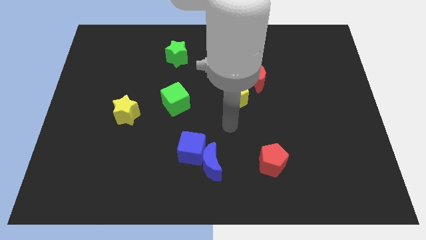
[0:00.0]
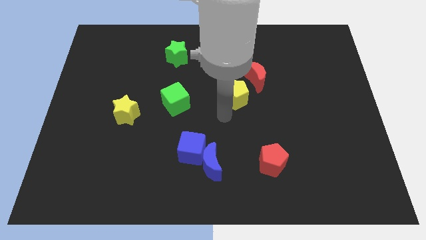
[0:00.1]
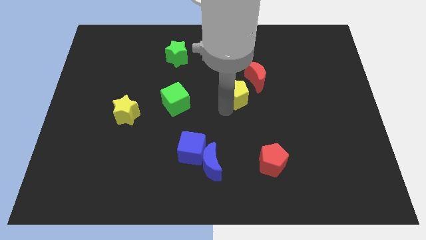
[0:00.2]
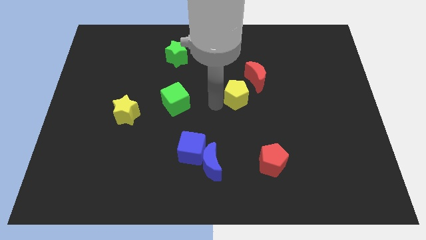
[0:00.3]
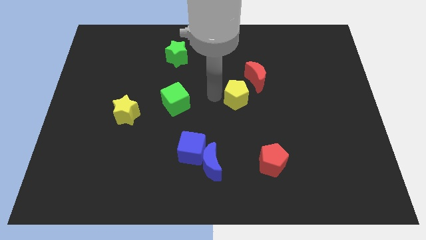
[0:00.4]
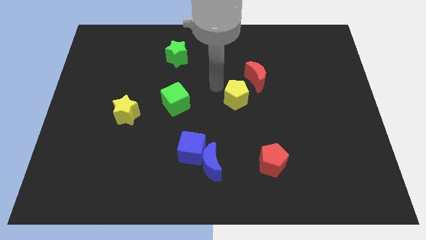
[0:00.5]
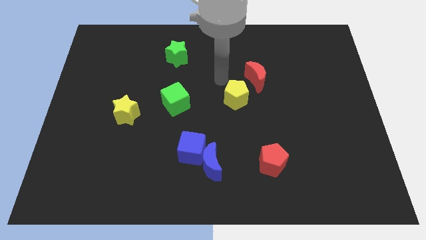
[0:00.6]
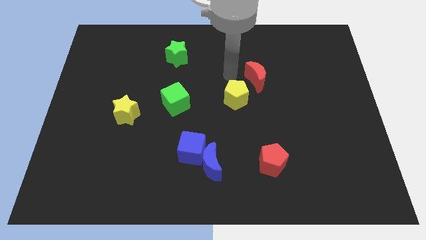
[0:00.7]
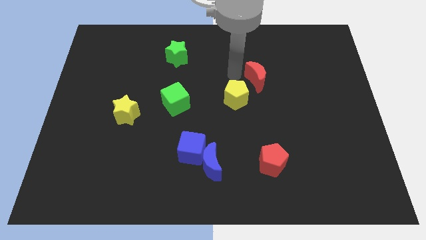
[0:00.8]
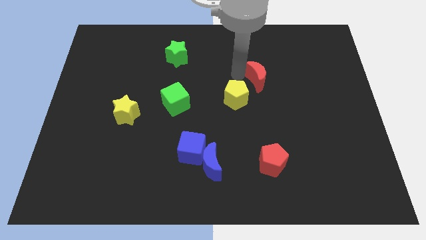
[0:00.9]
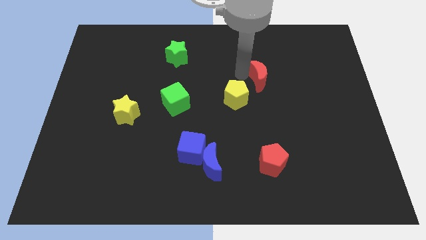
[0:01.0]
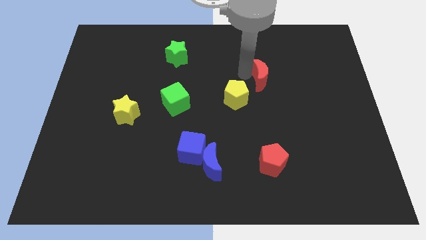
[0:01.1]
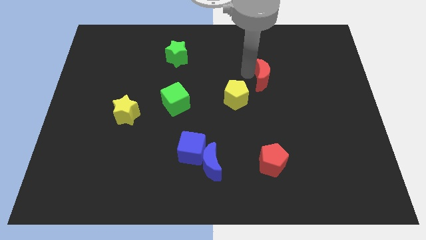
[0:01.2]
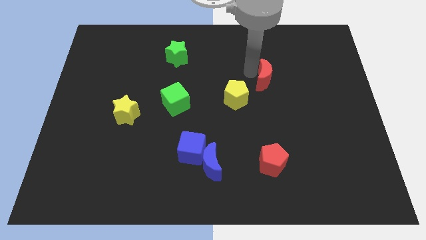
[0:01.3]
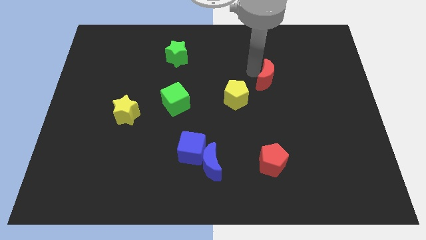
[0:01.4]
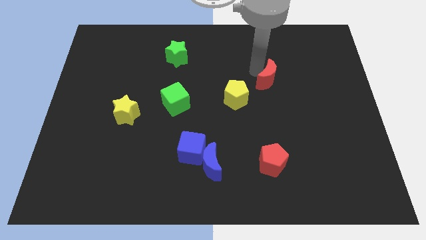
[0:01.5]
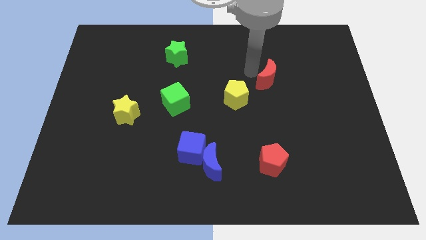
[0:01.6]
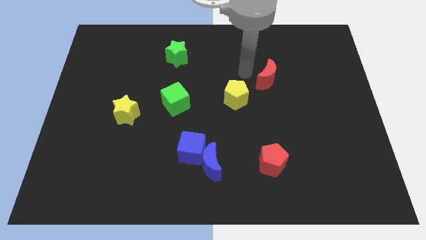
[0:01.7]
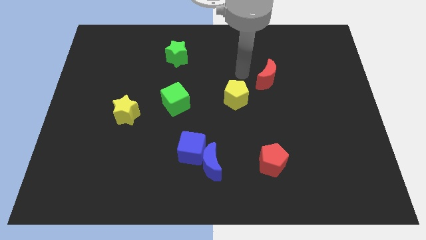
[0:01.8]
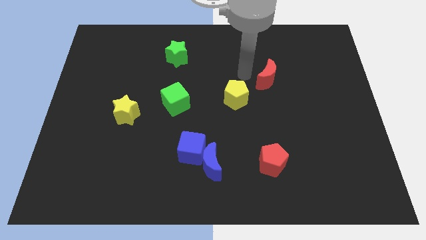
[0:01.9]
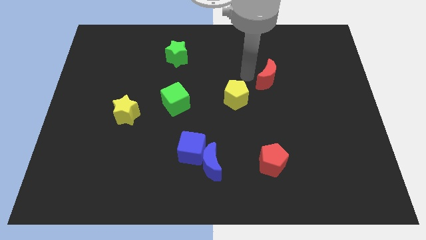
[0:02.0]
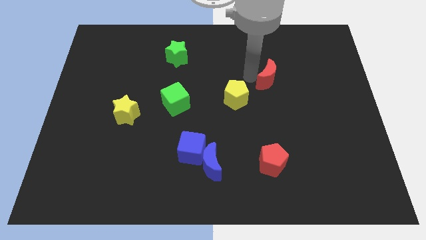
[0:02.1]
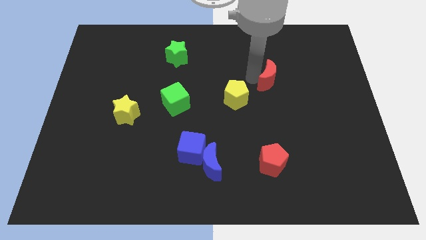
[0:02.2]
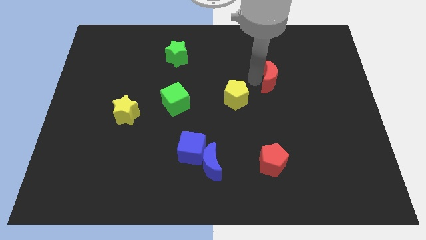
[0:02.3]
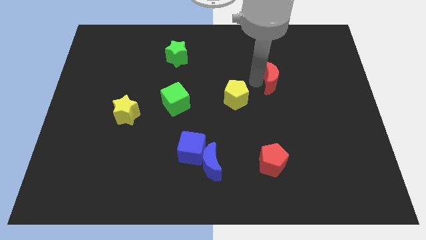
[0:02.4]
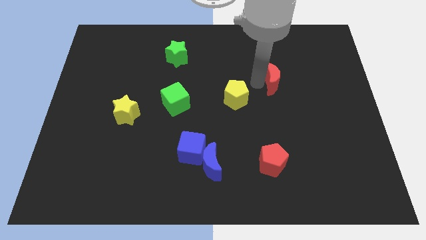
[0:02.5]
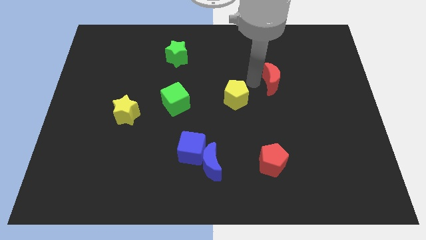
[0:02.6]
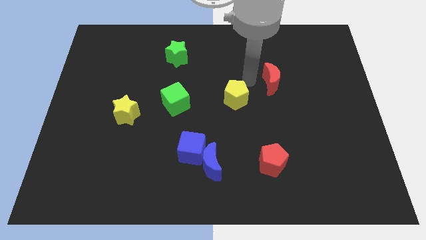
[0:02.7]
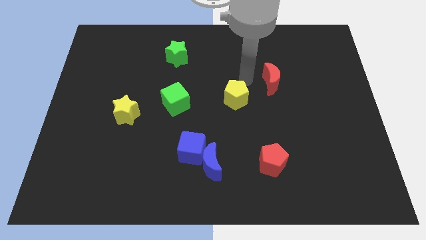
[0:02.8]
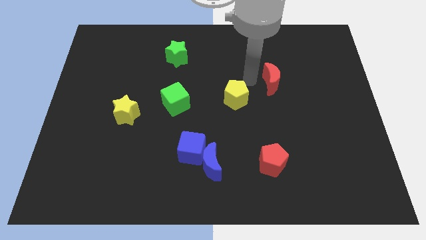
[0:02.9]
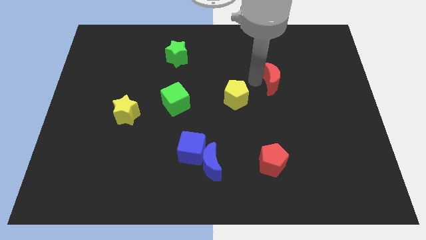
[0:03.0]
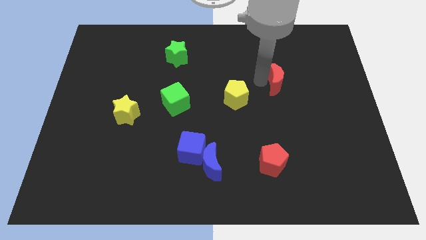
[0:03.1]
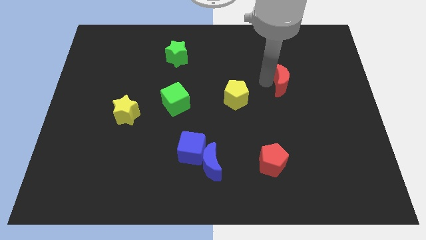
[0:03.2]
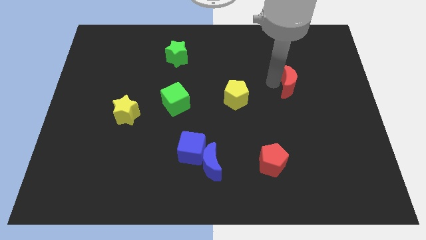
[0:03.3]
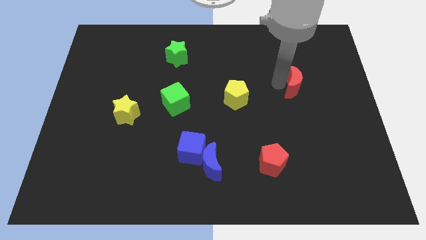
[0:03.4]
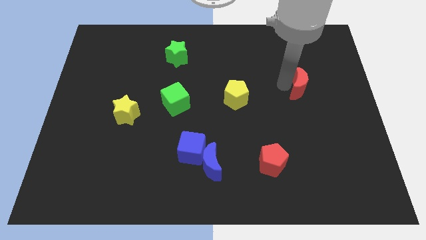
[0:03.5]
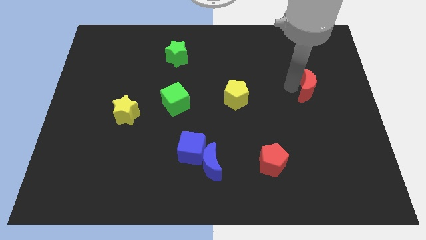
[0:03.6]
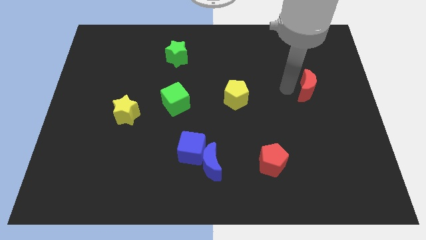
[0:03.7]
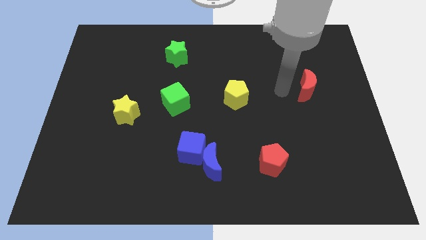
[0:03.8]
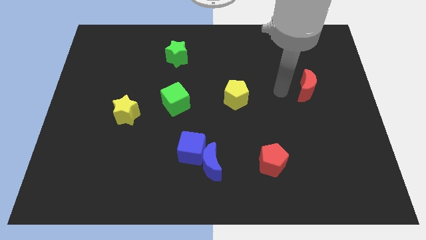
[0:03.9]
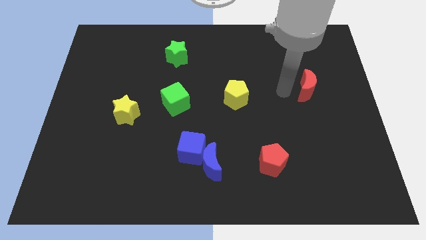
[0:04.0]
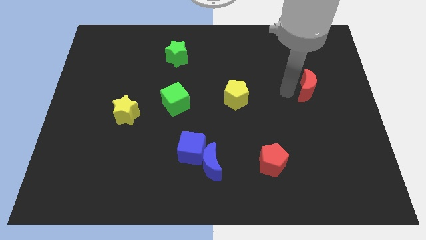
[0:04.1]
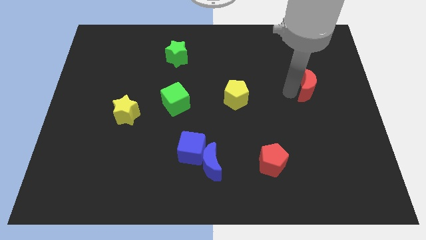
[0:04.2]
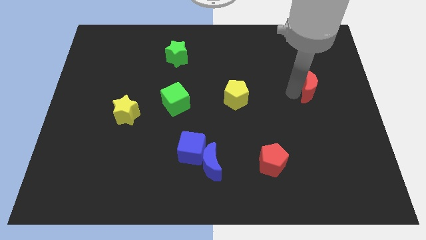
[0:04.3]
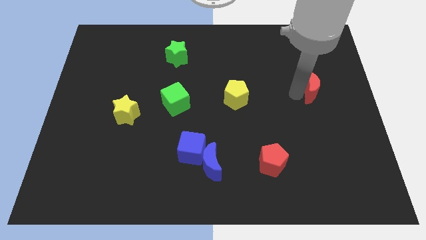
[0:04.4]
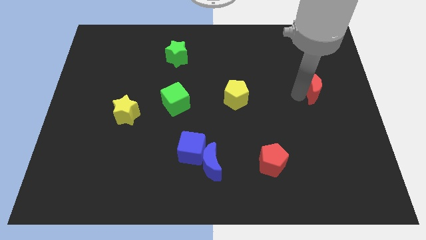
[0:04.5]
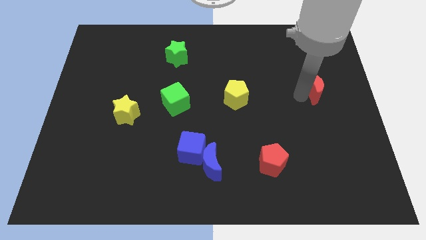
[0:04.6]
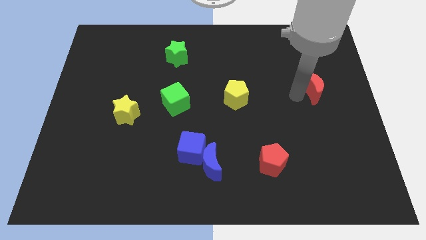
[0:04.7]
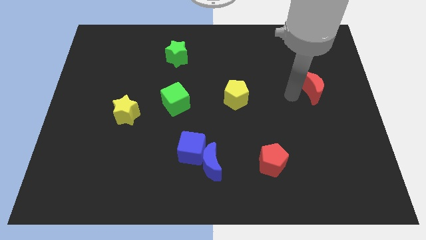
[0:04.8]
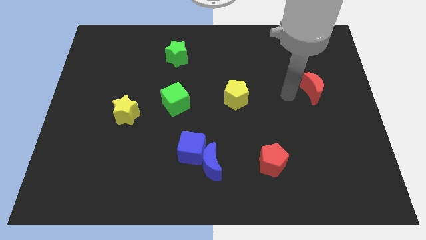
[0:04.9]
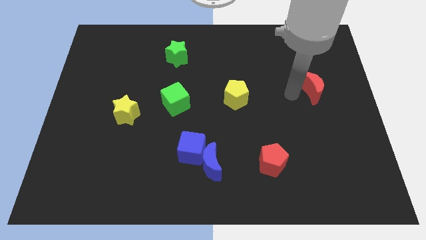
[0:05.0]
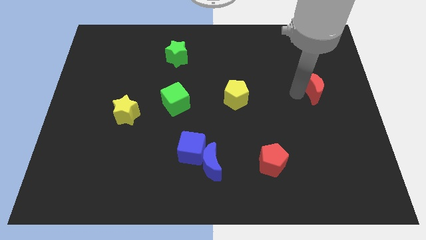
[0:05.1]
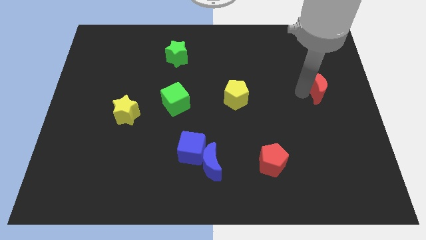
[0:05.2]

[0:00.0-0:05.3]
put the red moon to the right side

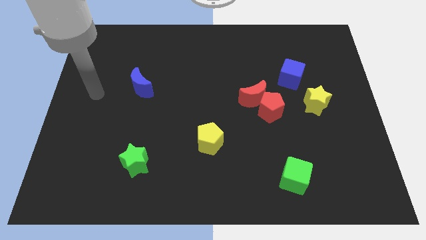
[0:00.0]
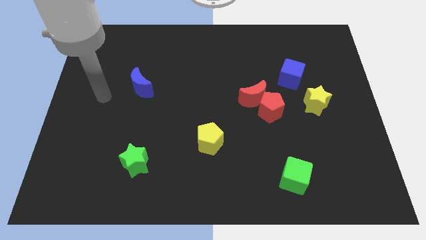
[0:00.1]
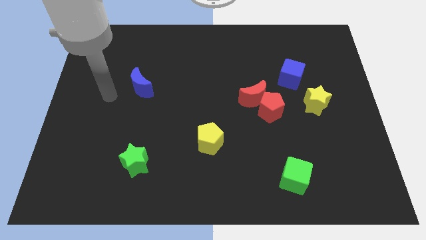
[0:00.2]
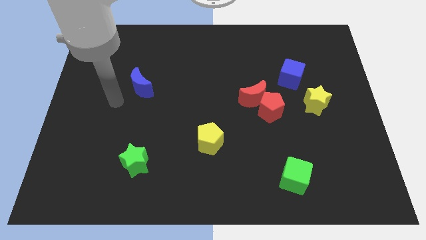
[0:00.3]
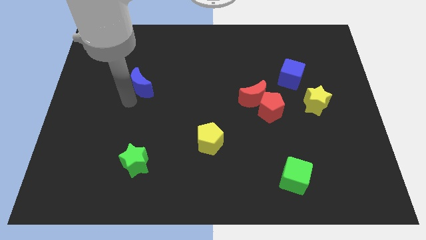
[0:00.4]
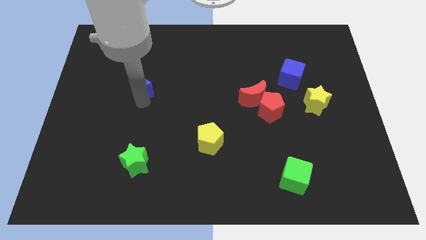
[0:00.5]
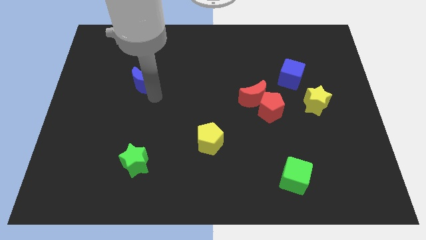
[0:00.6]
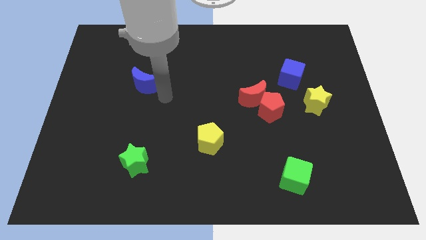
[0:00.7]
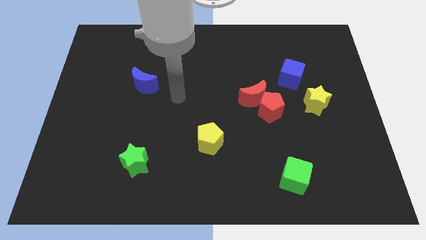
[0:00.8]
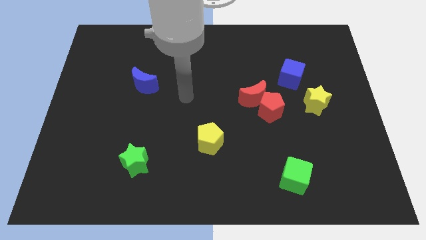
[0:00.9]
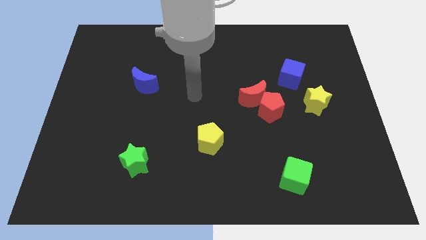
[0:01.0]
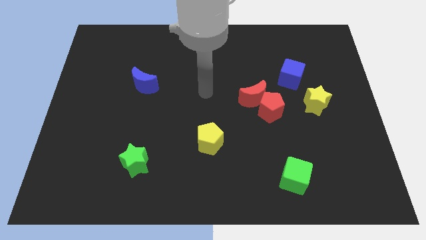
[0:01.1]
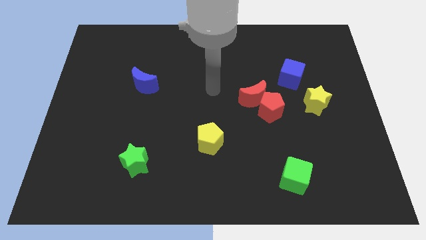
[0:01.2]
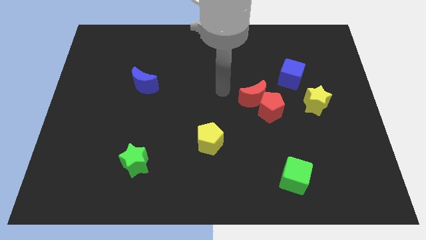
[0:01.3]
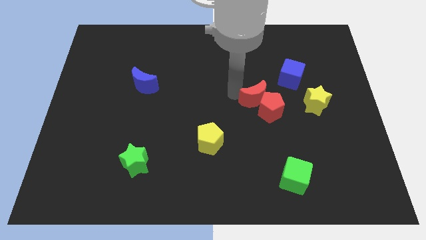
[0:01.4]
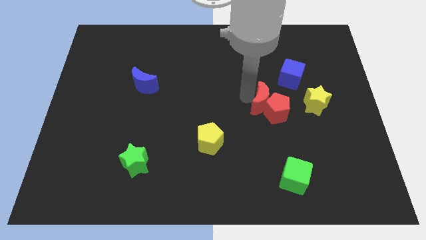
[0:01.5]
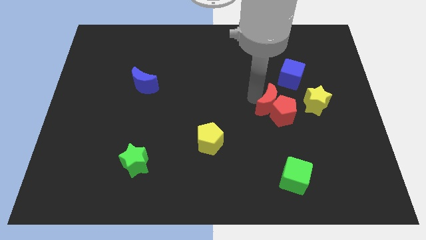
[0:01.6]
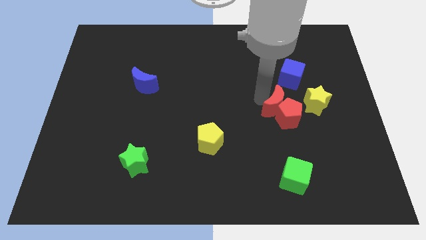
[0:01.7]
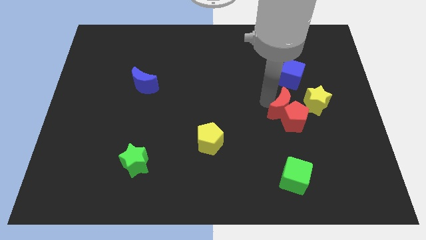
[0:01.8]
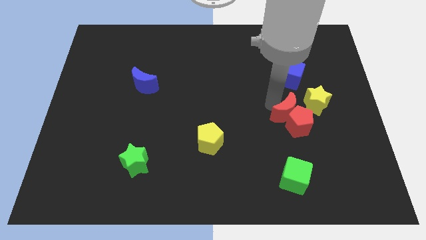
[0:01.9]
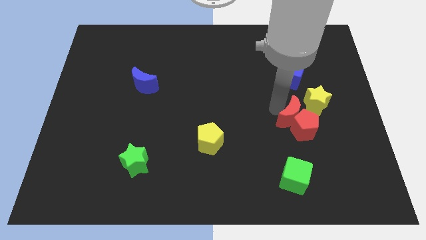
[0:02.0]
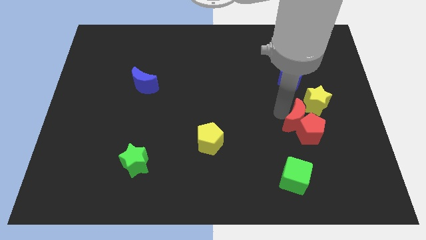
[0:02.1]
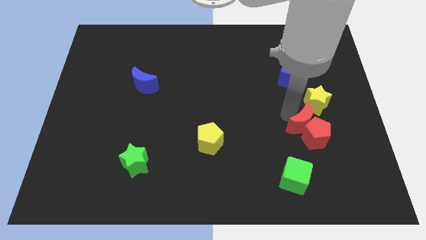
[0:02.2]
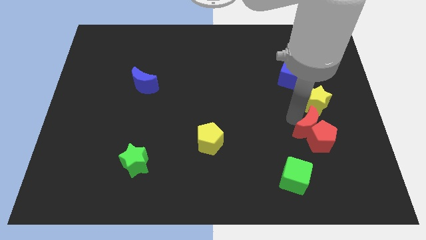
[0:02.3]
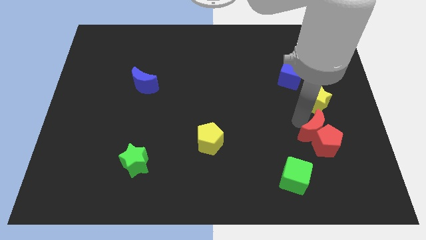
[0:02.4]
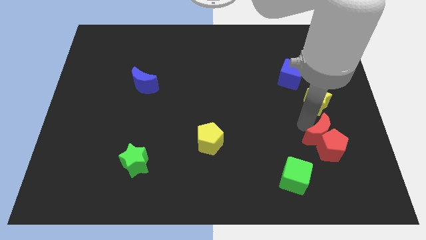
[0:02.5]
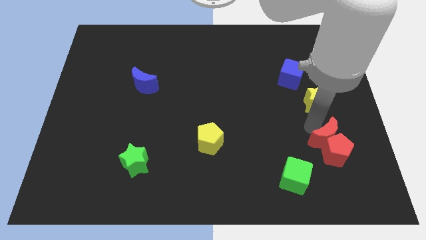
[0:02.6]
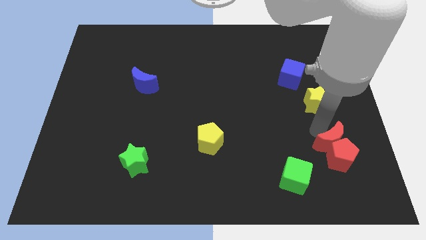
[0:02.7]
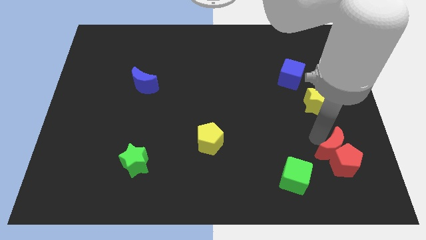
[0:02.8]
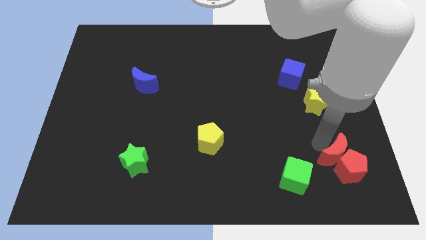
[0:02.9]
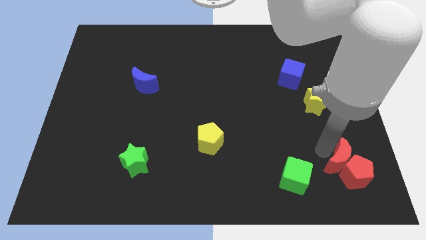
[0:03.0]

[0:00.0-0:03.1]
push the red pentagon to the bottom right
